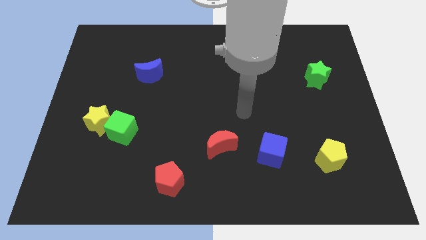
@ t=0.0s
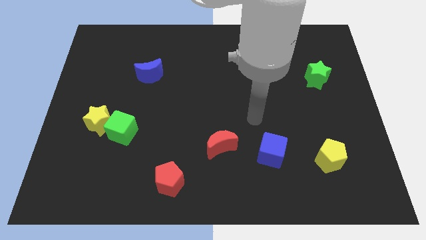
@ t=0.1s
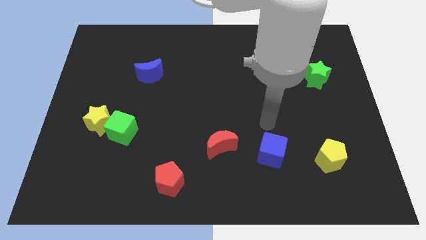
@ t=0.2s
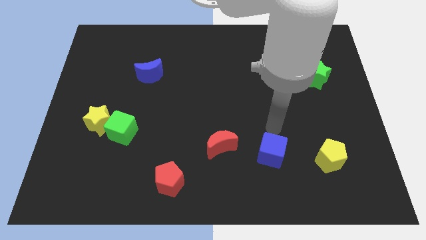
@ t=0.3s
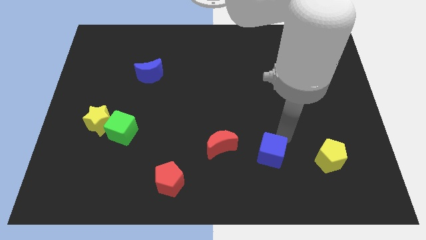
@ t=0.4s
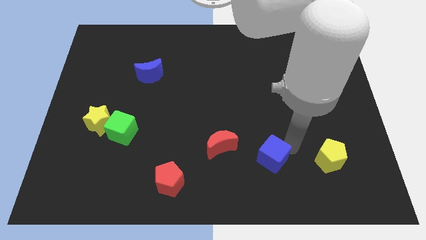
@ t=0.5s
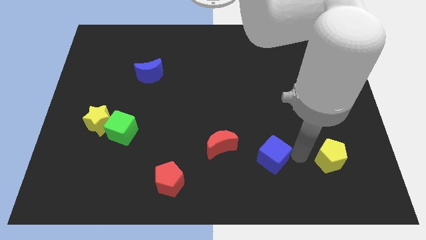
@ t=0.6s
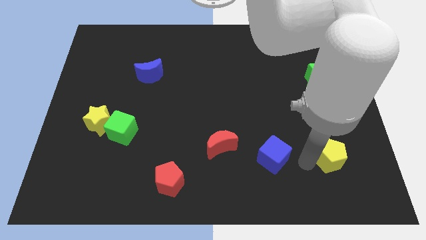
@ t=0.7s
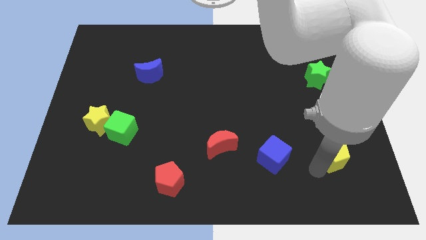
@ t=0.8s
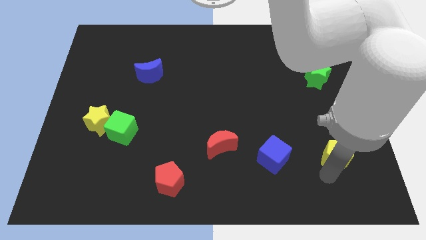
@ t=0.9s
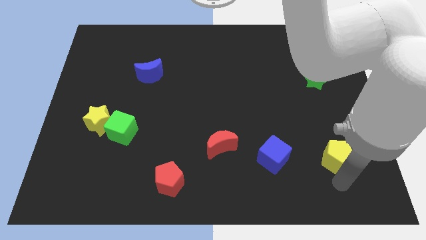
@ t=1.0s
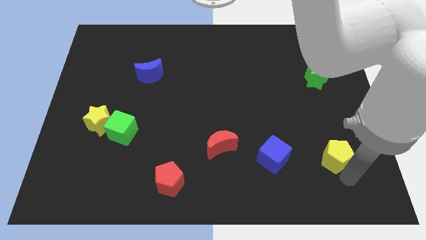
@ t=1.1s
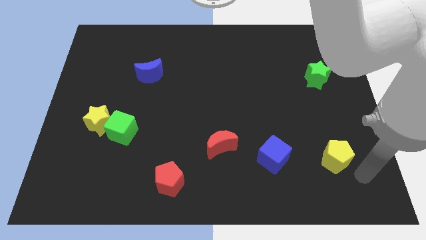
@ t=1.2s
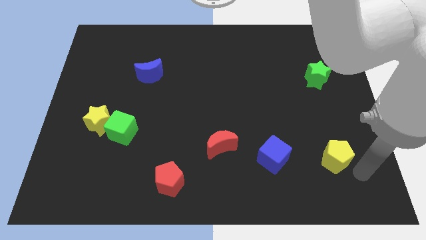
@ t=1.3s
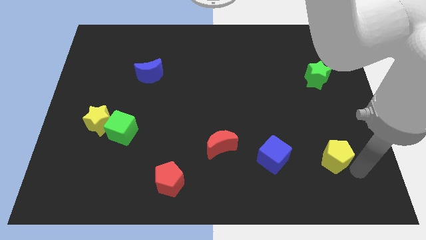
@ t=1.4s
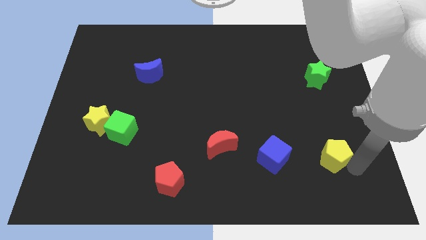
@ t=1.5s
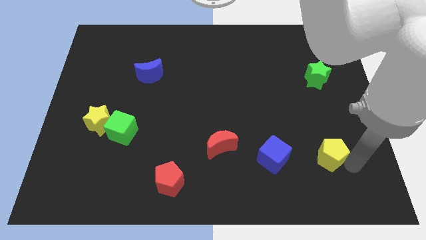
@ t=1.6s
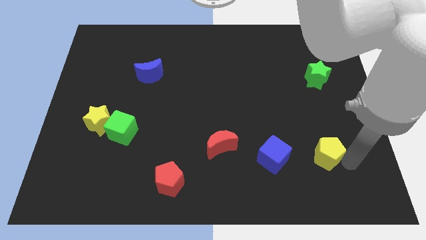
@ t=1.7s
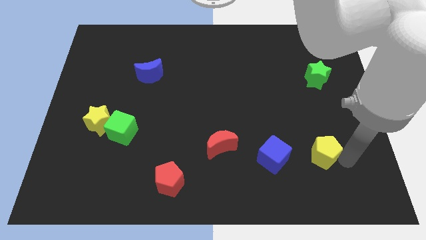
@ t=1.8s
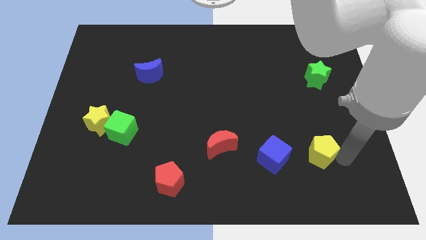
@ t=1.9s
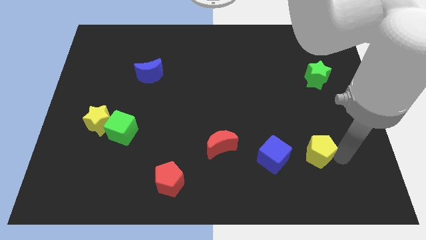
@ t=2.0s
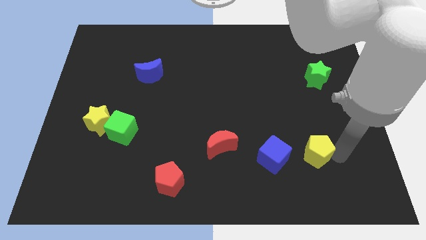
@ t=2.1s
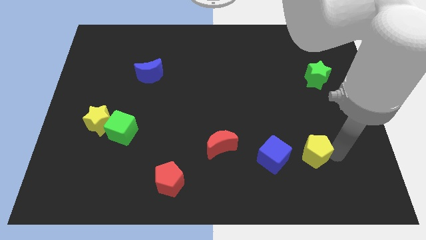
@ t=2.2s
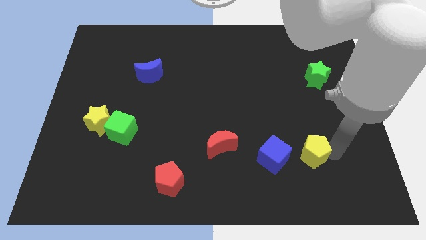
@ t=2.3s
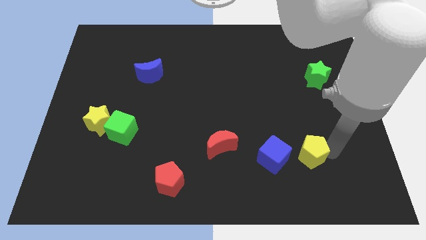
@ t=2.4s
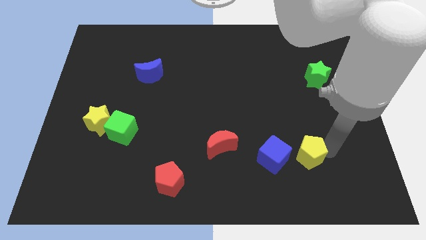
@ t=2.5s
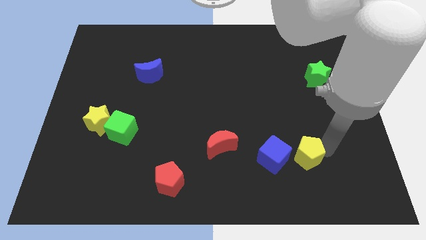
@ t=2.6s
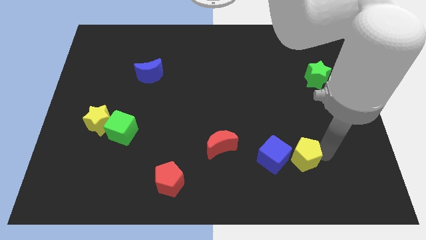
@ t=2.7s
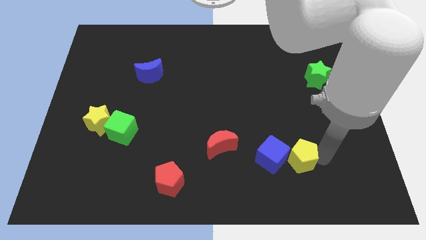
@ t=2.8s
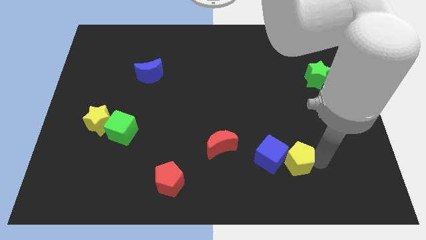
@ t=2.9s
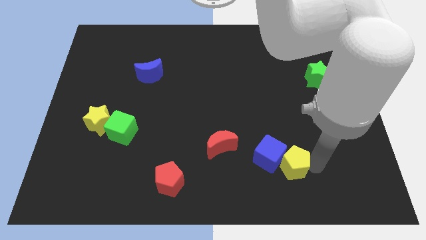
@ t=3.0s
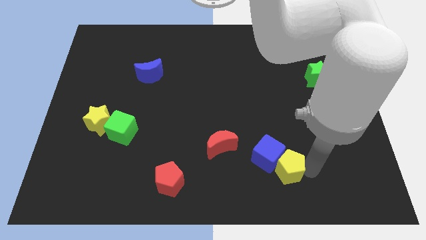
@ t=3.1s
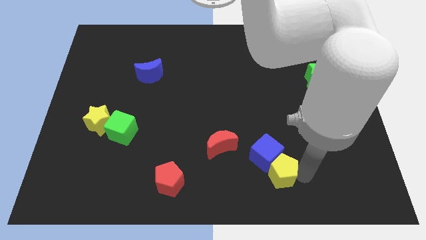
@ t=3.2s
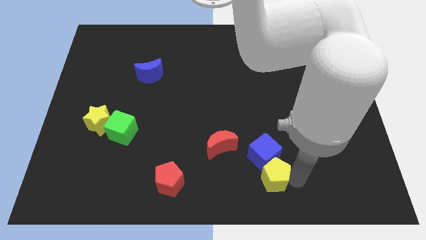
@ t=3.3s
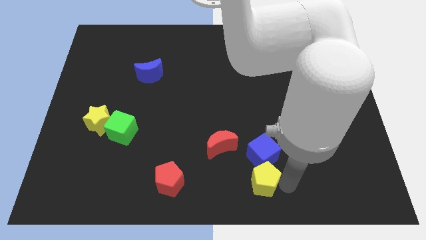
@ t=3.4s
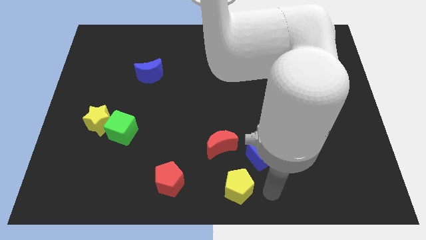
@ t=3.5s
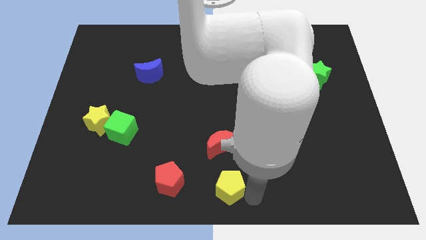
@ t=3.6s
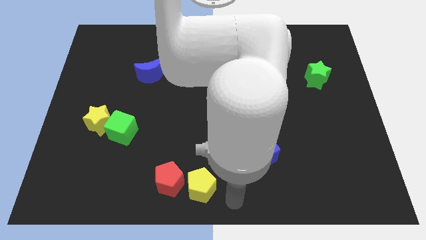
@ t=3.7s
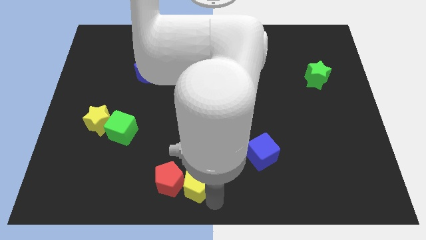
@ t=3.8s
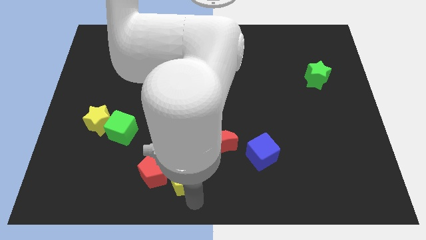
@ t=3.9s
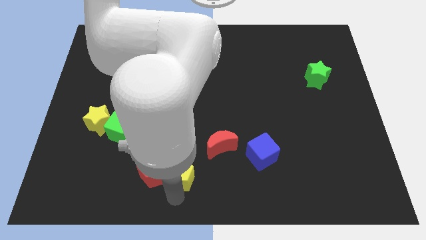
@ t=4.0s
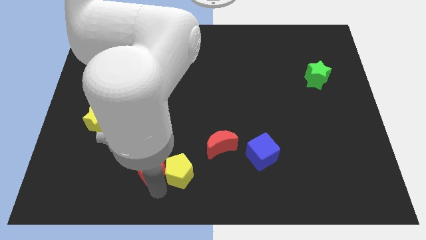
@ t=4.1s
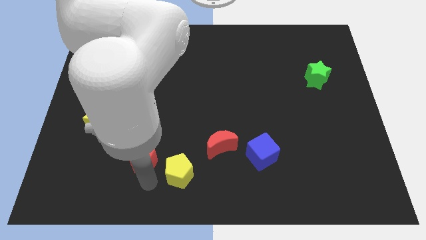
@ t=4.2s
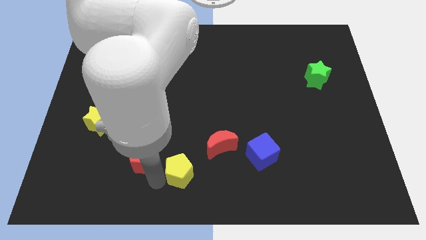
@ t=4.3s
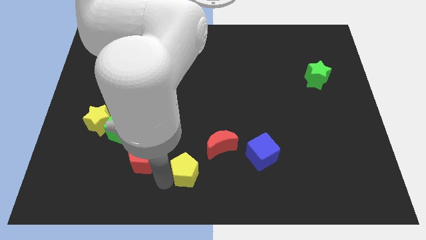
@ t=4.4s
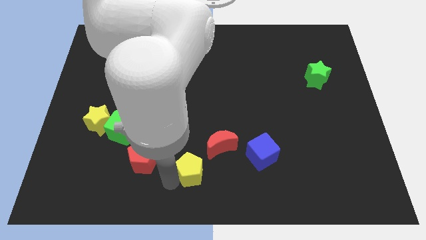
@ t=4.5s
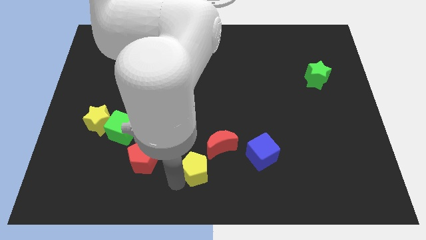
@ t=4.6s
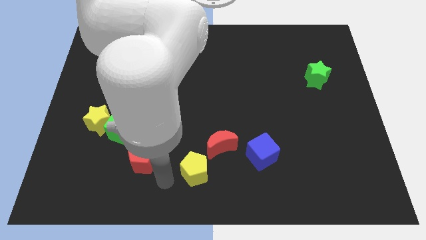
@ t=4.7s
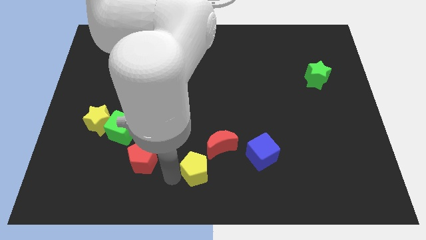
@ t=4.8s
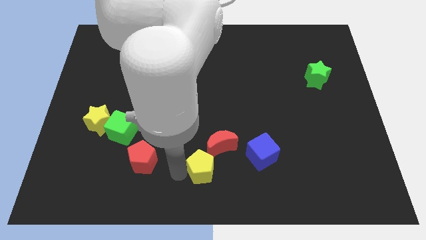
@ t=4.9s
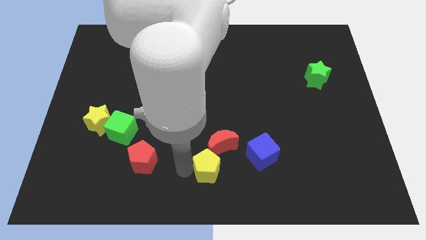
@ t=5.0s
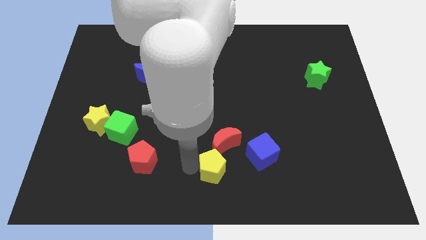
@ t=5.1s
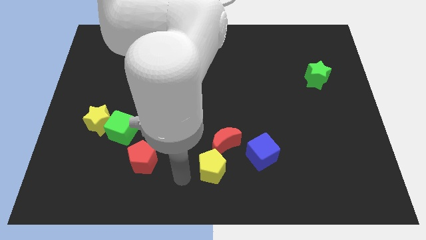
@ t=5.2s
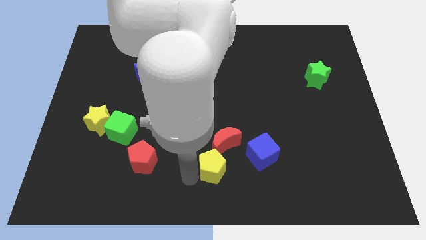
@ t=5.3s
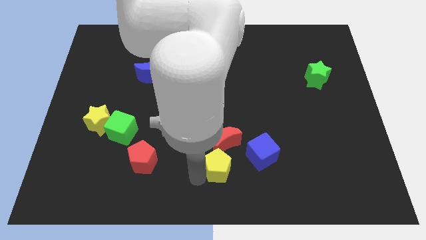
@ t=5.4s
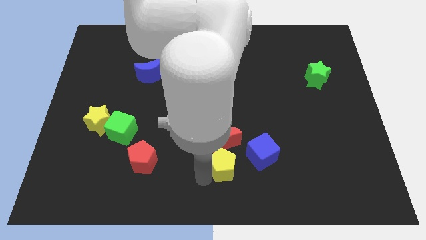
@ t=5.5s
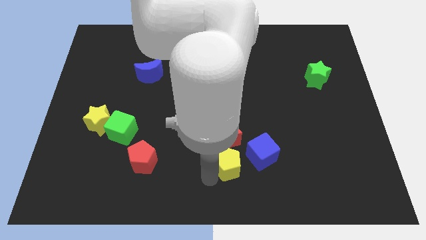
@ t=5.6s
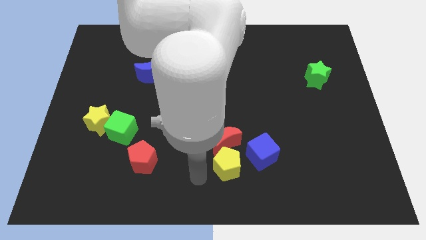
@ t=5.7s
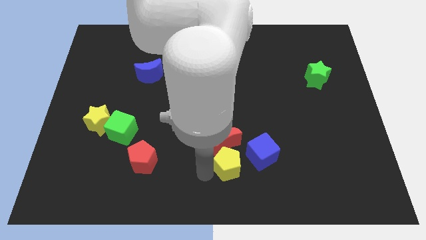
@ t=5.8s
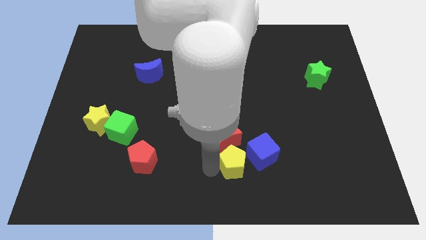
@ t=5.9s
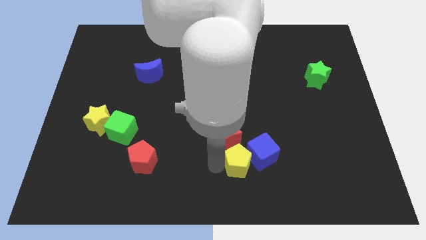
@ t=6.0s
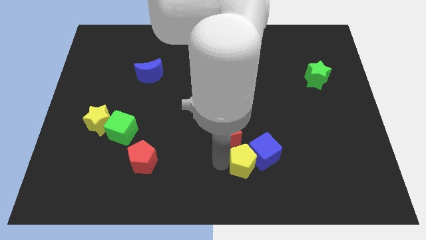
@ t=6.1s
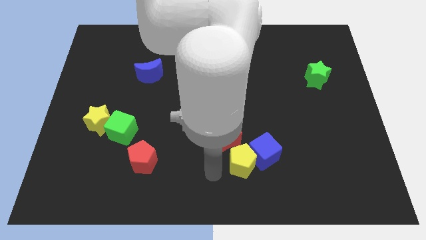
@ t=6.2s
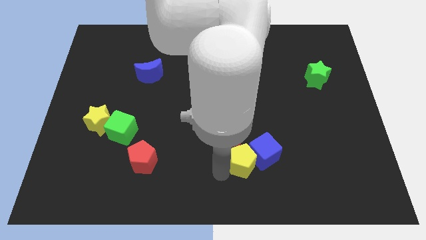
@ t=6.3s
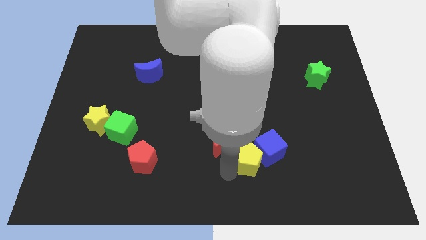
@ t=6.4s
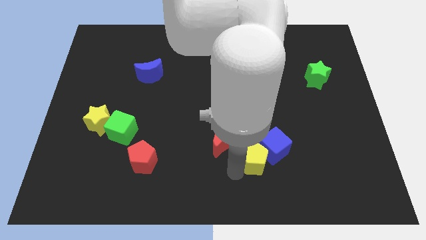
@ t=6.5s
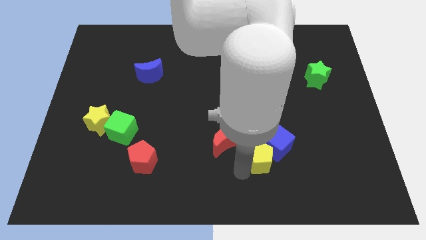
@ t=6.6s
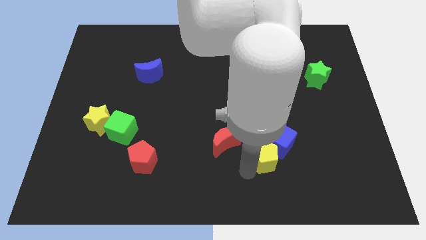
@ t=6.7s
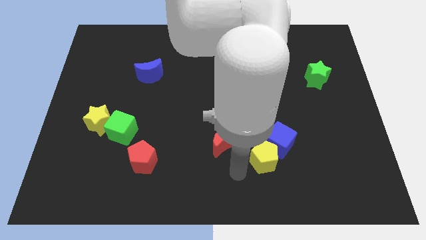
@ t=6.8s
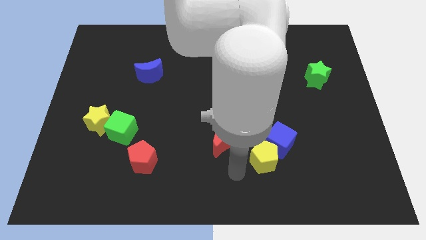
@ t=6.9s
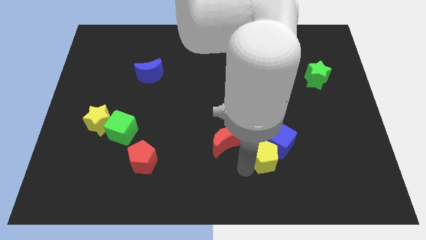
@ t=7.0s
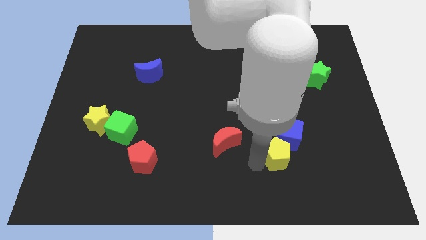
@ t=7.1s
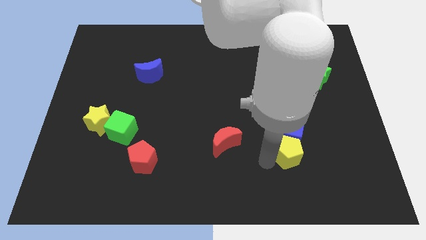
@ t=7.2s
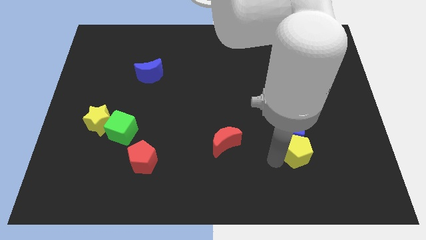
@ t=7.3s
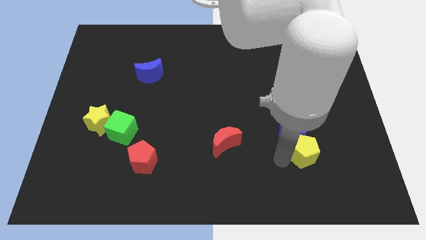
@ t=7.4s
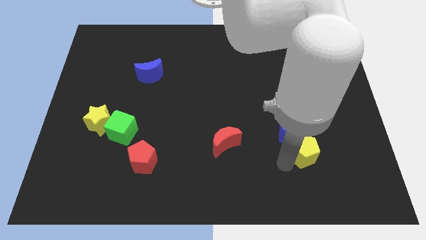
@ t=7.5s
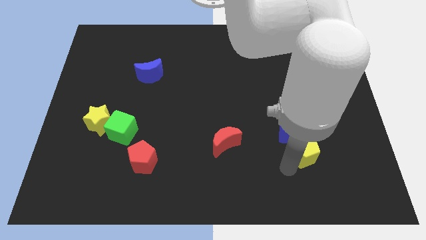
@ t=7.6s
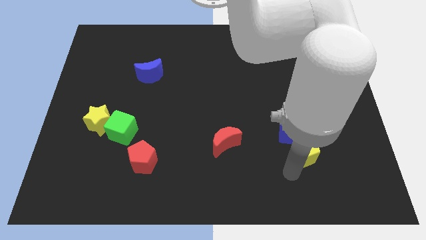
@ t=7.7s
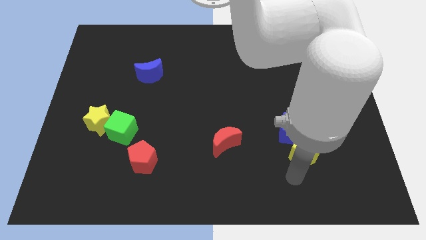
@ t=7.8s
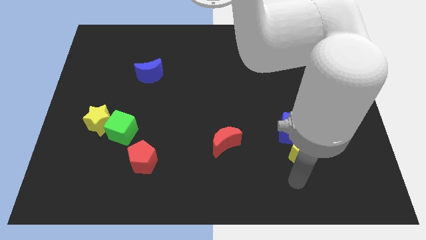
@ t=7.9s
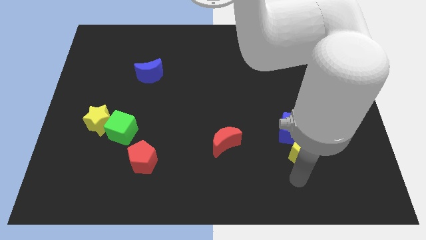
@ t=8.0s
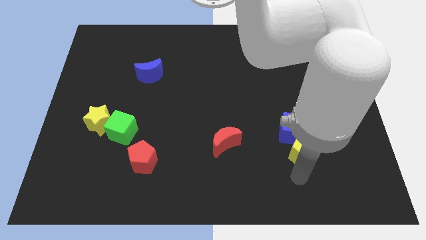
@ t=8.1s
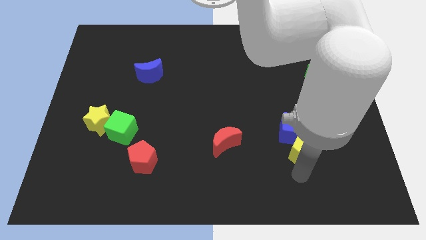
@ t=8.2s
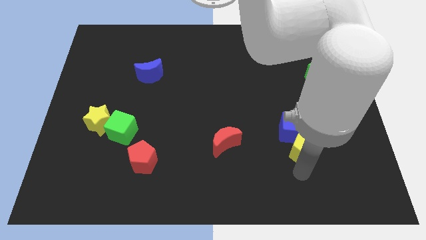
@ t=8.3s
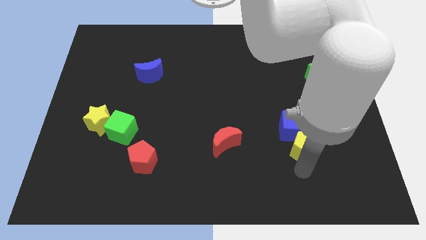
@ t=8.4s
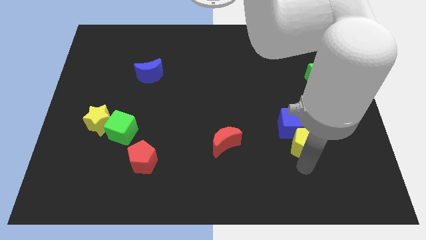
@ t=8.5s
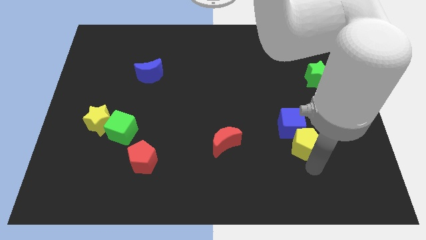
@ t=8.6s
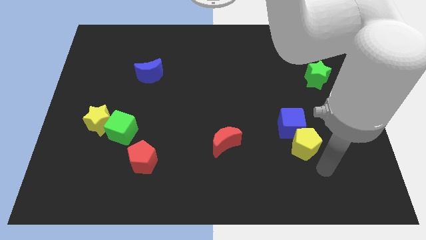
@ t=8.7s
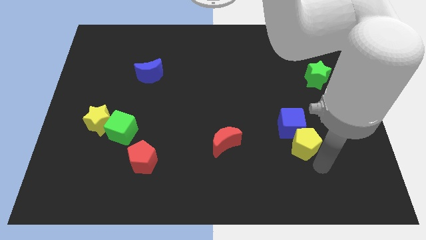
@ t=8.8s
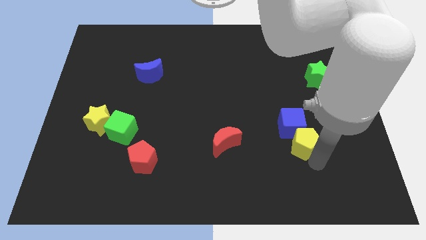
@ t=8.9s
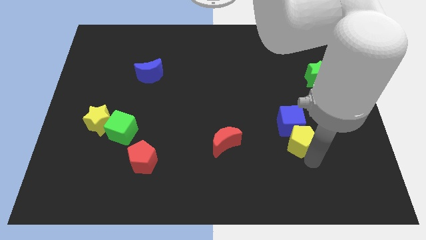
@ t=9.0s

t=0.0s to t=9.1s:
slide the yellow pentagon up and left a bit
